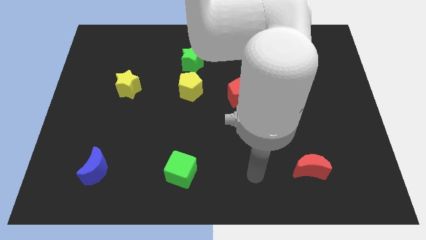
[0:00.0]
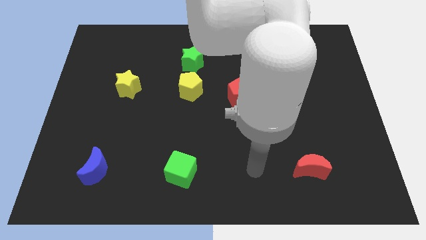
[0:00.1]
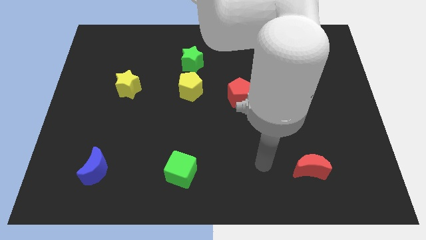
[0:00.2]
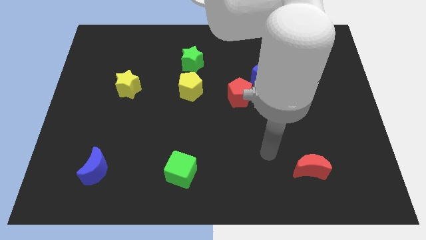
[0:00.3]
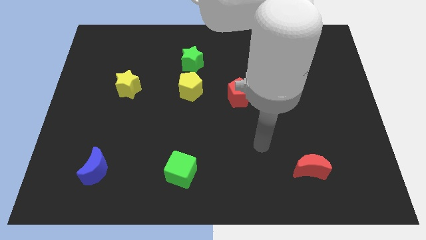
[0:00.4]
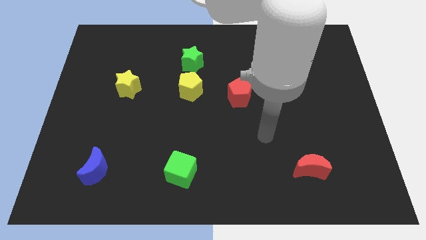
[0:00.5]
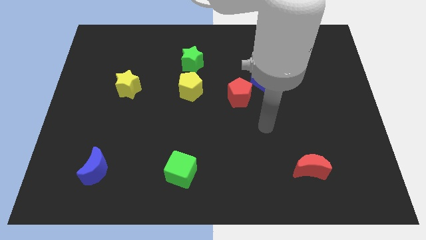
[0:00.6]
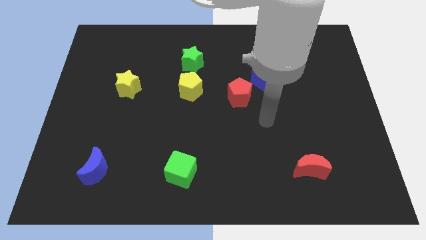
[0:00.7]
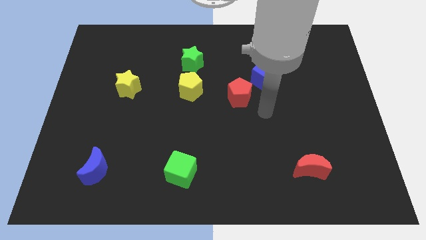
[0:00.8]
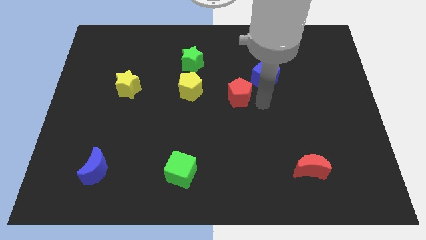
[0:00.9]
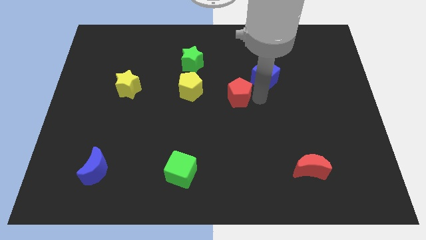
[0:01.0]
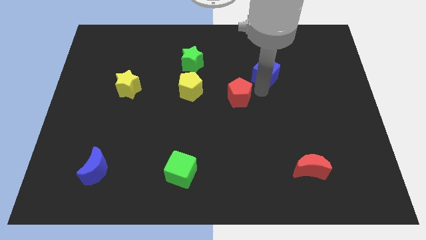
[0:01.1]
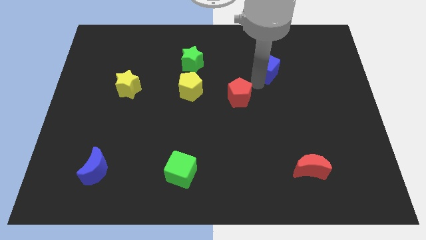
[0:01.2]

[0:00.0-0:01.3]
pull the red pentagon apart from the blue cube

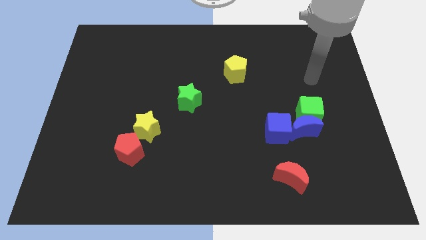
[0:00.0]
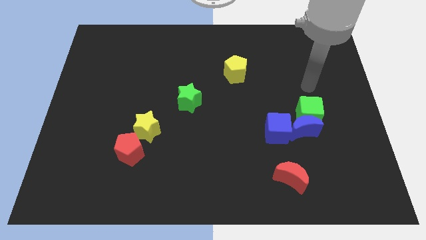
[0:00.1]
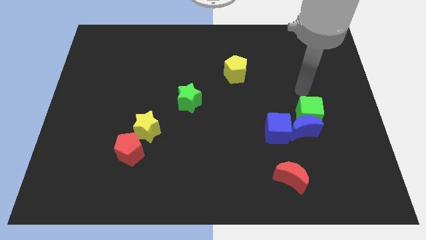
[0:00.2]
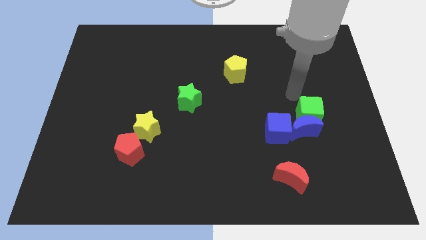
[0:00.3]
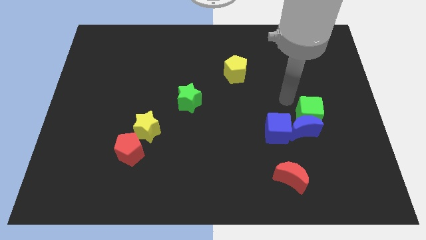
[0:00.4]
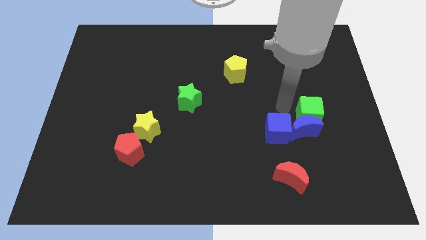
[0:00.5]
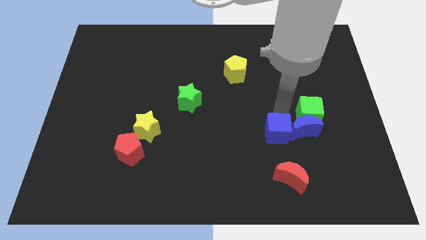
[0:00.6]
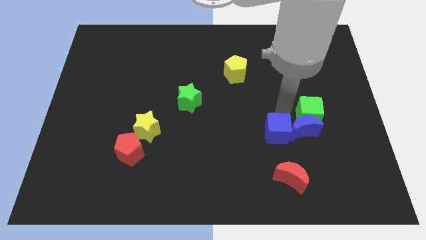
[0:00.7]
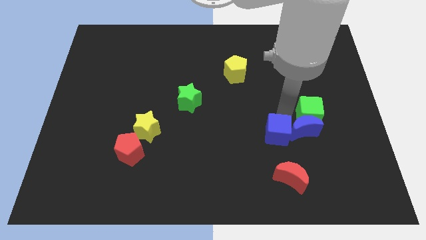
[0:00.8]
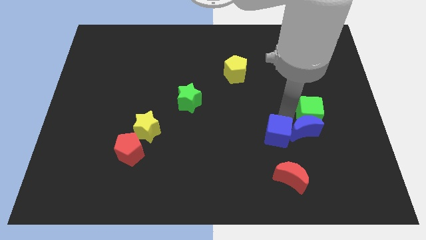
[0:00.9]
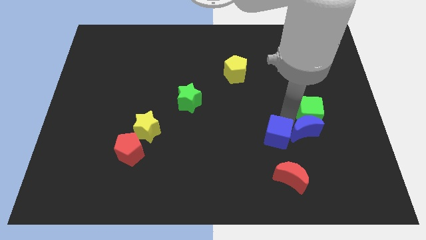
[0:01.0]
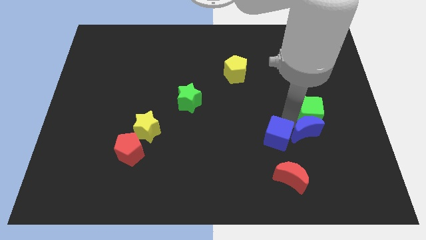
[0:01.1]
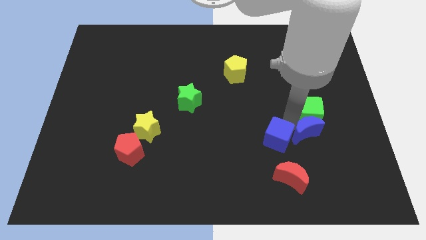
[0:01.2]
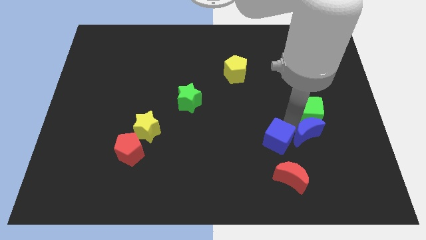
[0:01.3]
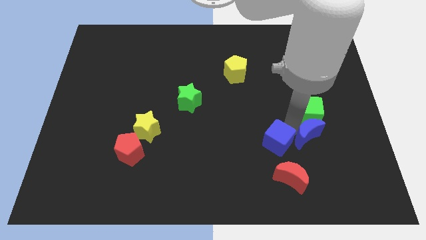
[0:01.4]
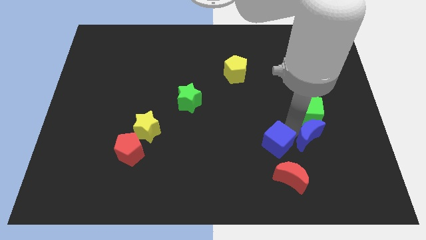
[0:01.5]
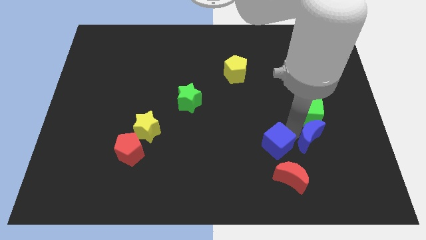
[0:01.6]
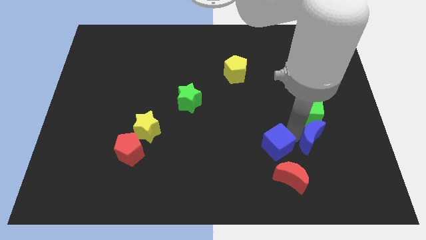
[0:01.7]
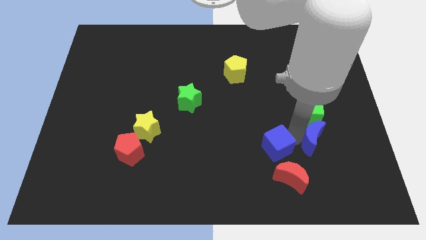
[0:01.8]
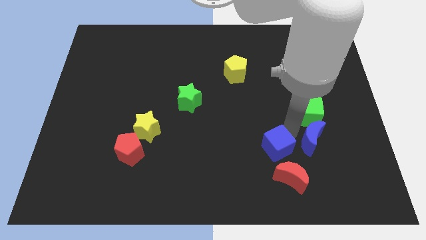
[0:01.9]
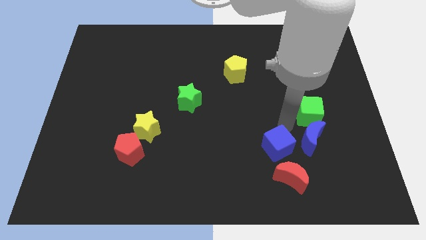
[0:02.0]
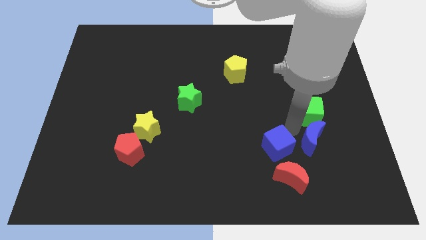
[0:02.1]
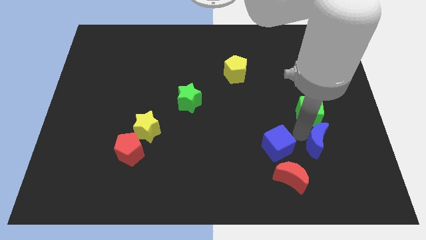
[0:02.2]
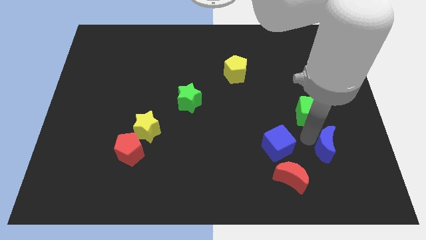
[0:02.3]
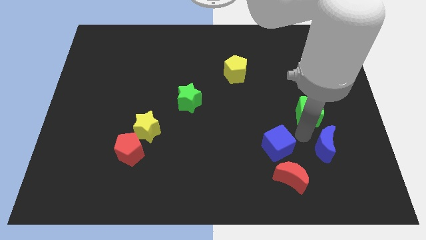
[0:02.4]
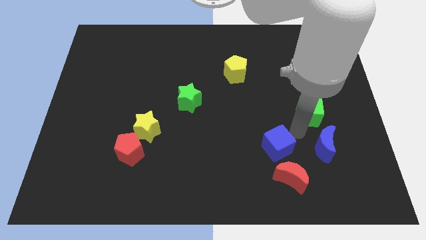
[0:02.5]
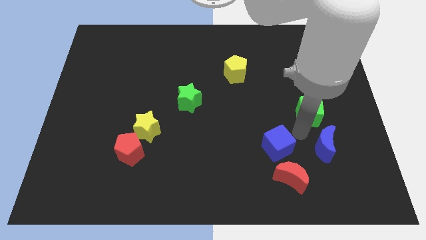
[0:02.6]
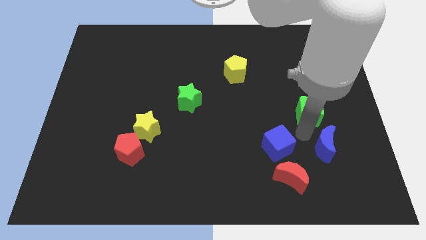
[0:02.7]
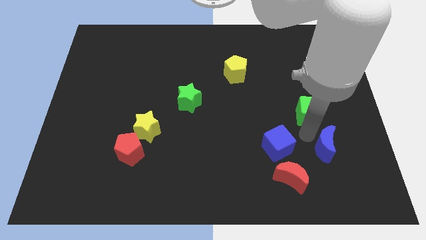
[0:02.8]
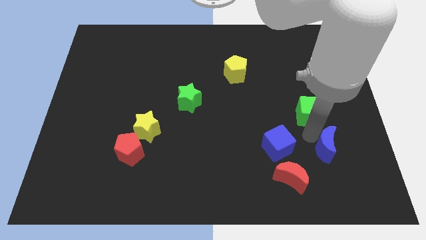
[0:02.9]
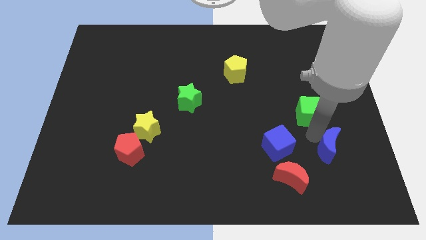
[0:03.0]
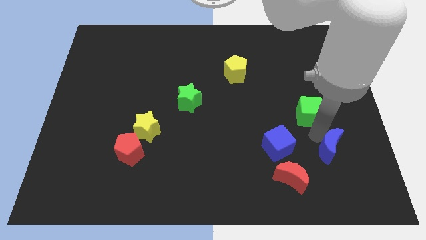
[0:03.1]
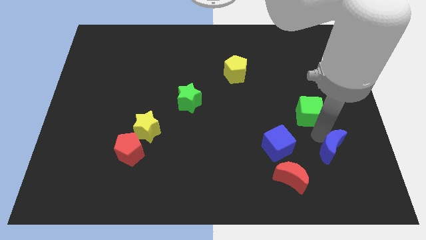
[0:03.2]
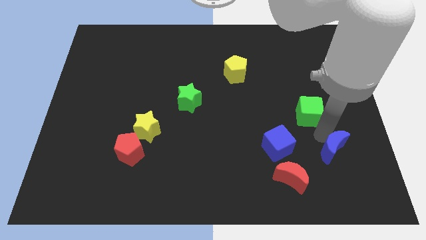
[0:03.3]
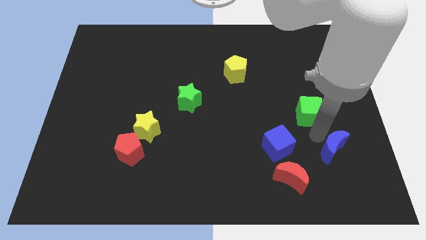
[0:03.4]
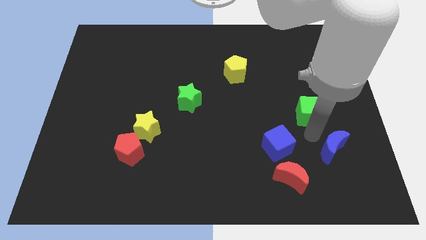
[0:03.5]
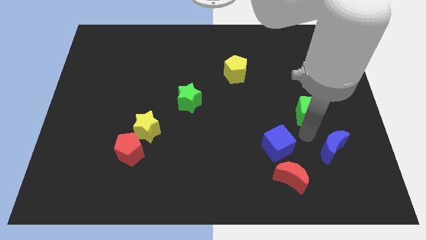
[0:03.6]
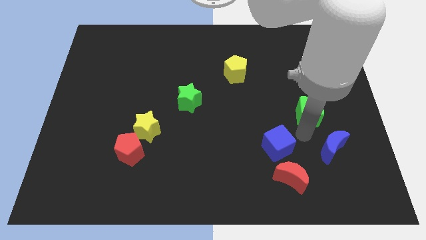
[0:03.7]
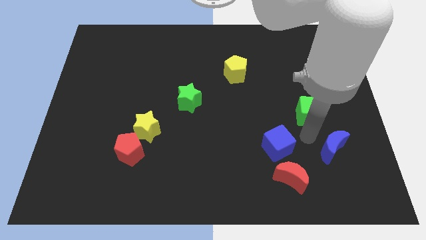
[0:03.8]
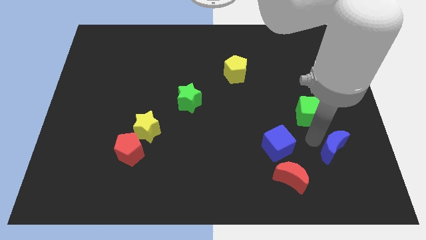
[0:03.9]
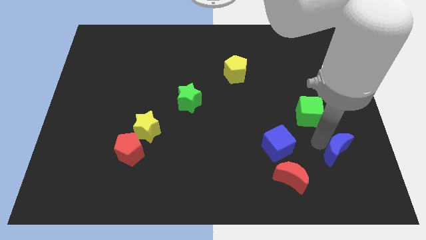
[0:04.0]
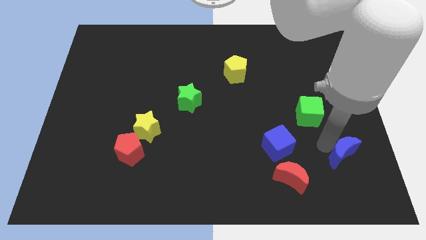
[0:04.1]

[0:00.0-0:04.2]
separate the blue moon from the green cube and blue cube

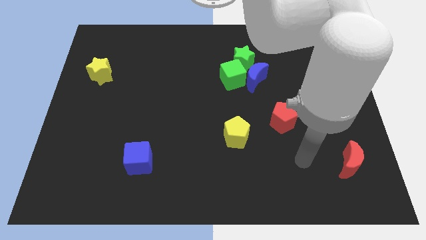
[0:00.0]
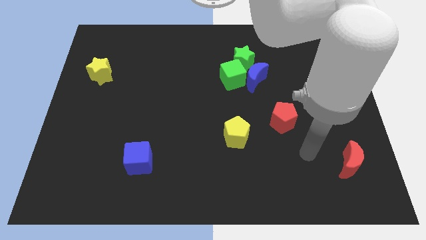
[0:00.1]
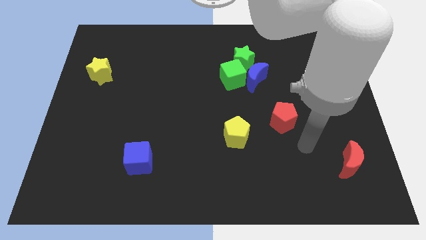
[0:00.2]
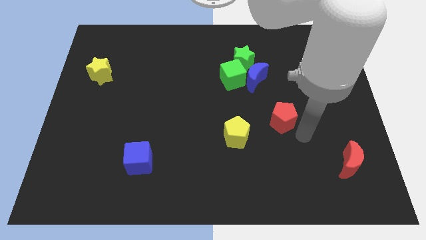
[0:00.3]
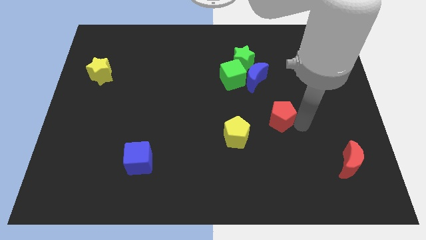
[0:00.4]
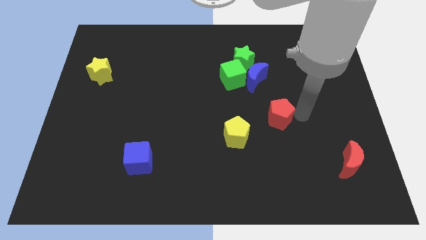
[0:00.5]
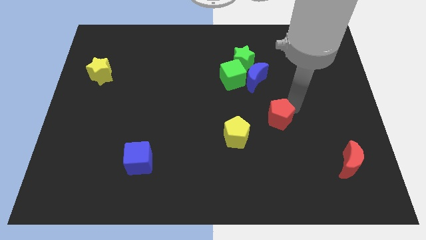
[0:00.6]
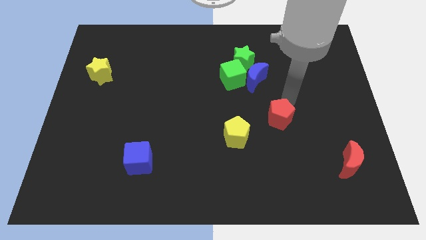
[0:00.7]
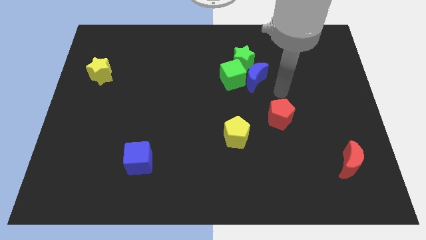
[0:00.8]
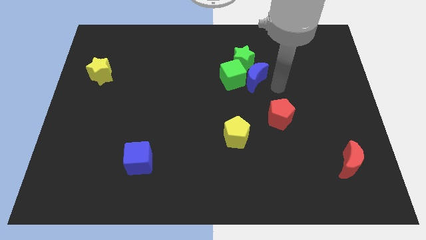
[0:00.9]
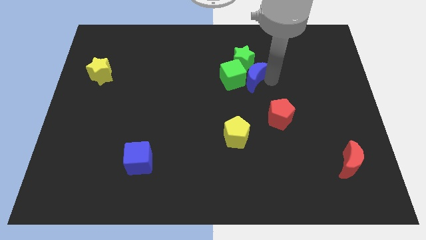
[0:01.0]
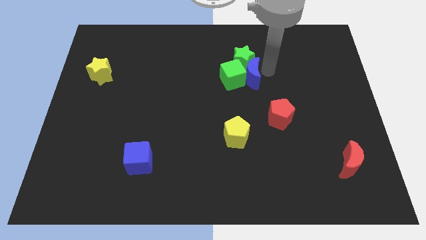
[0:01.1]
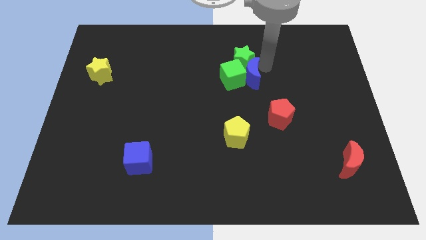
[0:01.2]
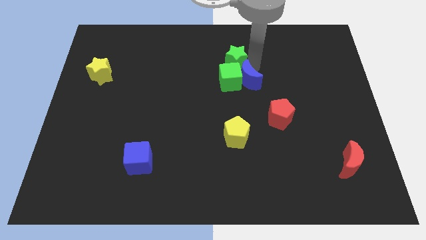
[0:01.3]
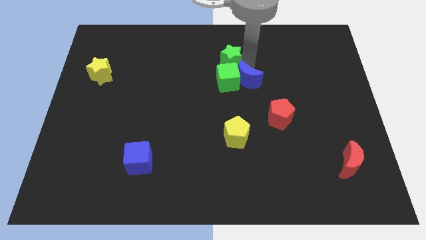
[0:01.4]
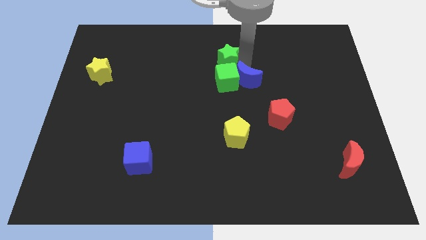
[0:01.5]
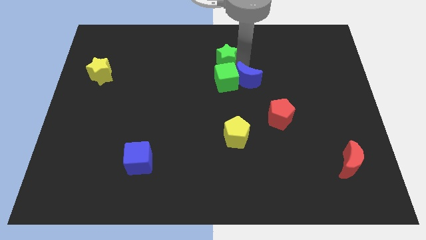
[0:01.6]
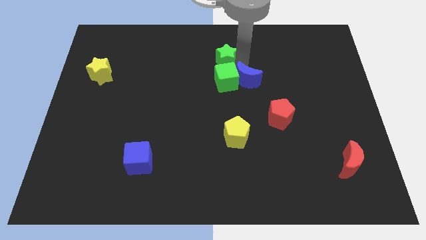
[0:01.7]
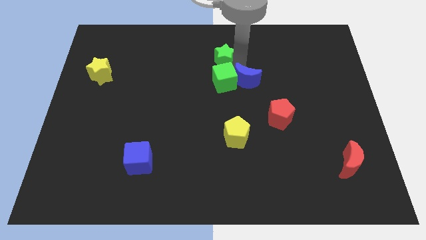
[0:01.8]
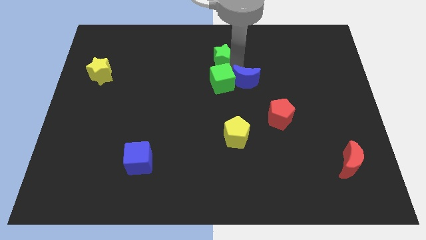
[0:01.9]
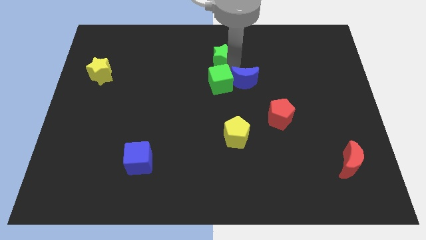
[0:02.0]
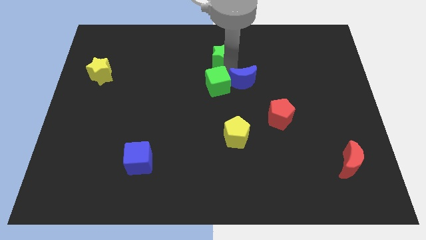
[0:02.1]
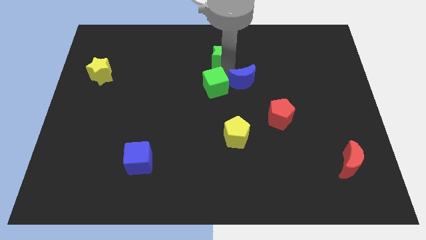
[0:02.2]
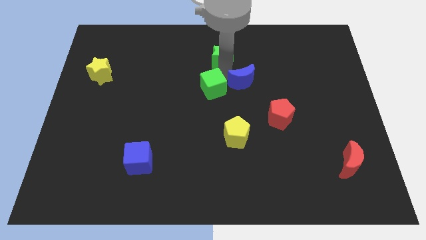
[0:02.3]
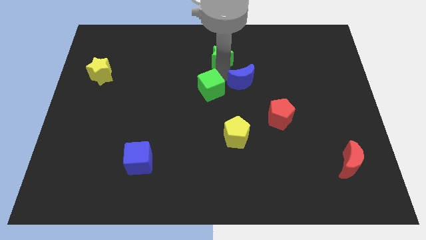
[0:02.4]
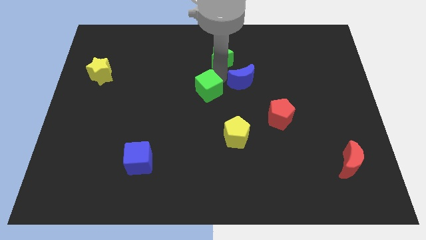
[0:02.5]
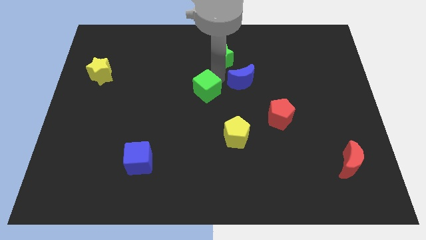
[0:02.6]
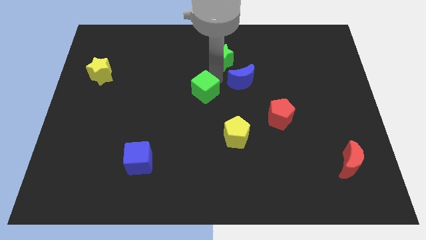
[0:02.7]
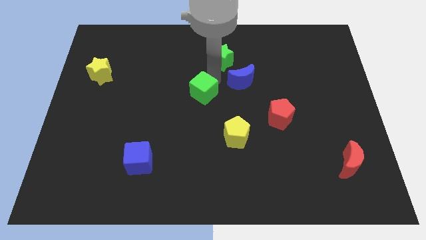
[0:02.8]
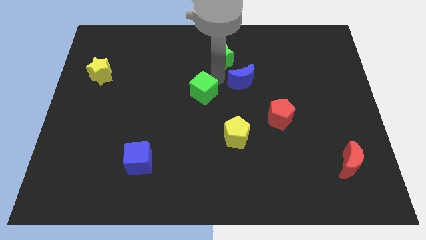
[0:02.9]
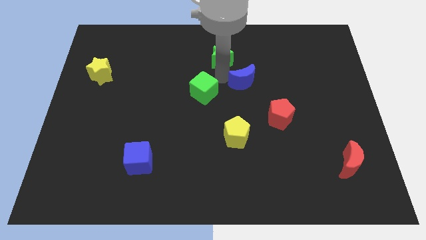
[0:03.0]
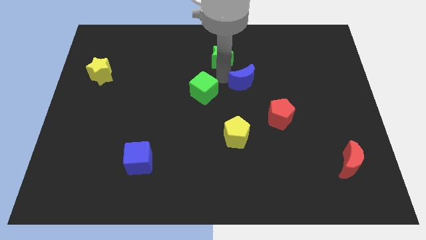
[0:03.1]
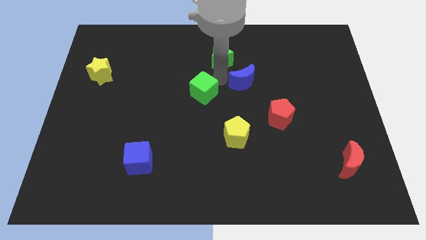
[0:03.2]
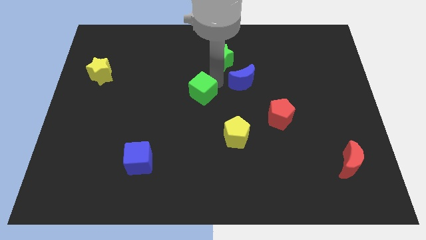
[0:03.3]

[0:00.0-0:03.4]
move the green cube away from the blue moon and green star

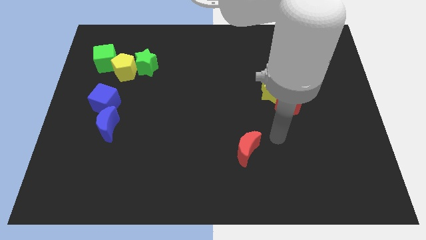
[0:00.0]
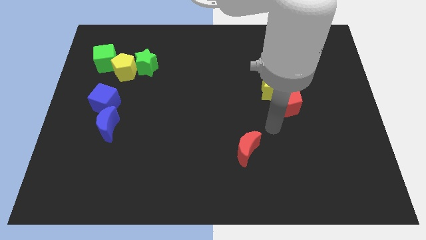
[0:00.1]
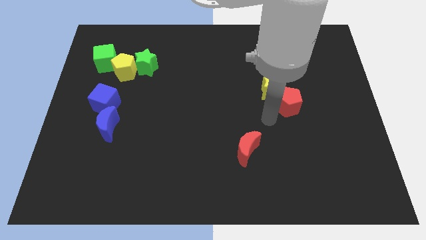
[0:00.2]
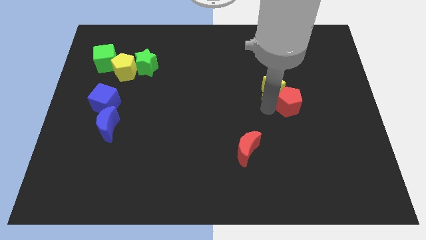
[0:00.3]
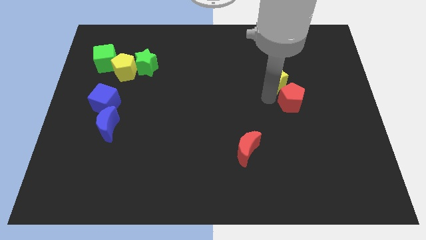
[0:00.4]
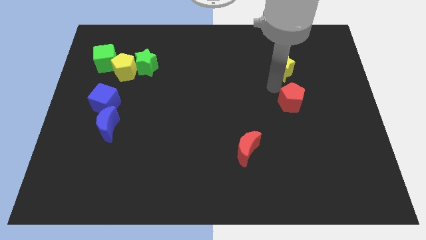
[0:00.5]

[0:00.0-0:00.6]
move the red pentagon away from the yellow star
